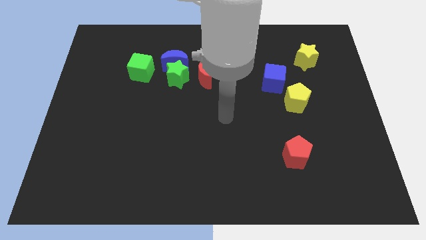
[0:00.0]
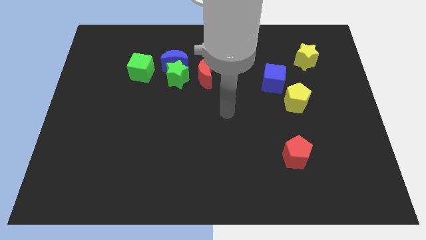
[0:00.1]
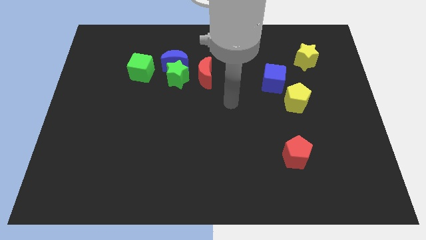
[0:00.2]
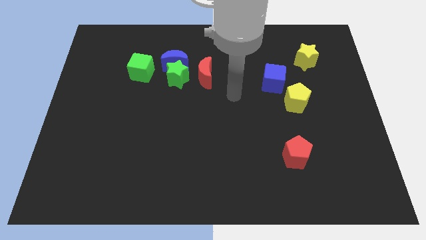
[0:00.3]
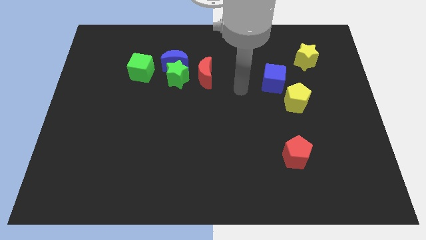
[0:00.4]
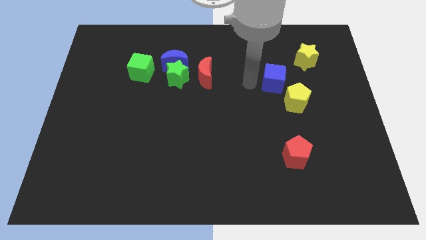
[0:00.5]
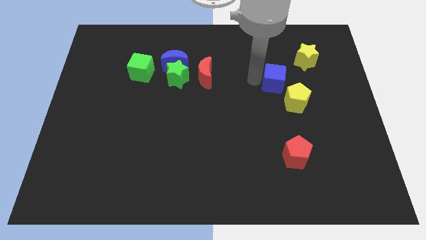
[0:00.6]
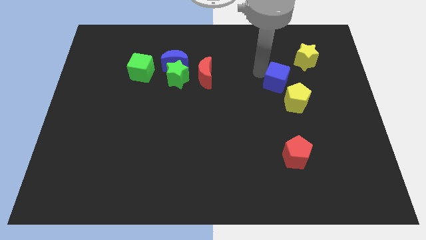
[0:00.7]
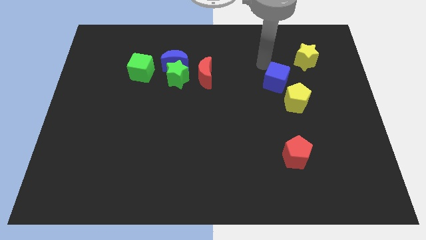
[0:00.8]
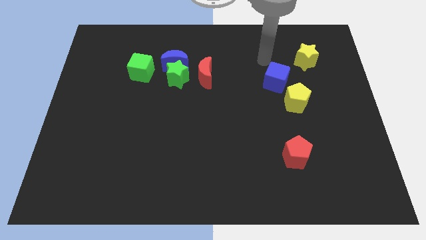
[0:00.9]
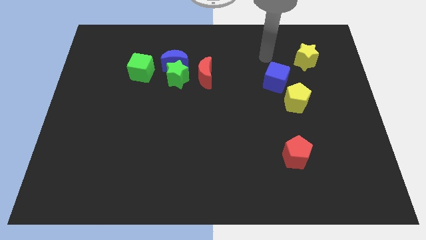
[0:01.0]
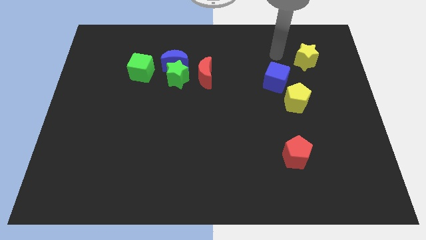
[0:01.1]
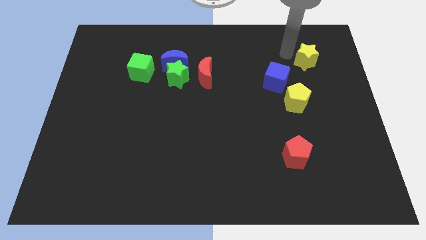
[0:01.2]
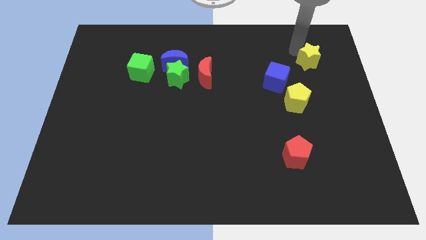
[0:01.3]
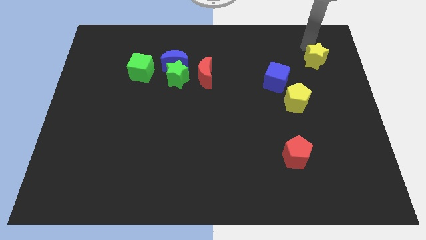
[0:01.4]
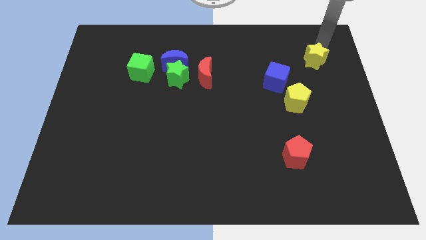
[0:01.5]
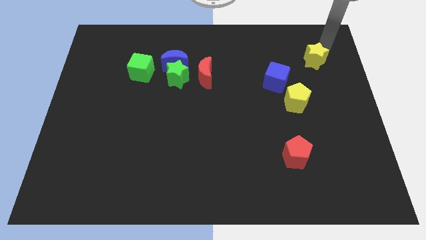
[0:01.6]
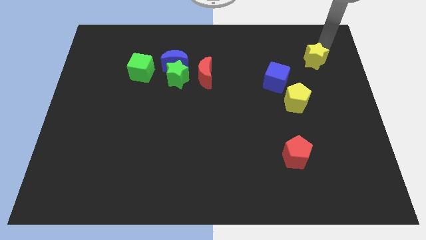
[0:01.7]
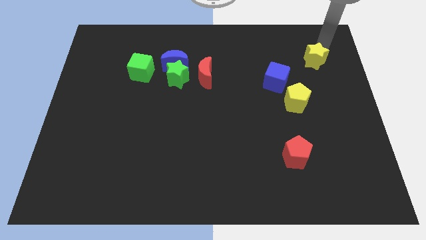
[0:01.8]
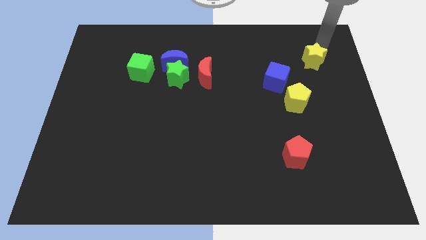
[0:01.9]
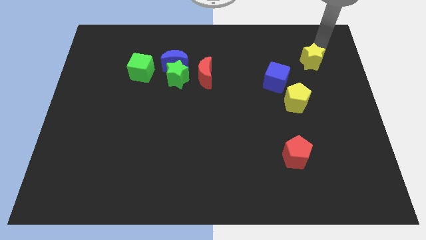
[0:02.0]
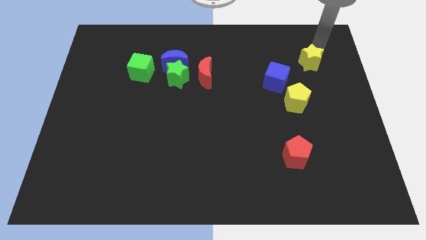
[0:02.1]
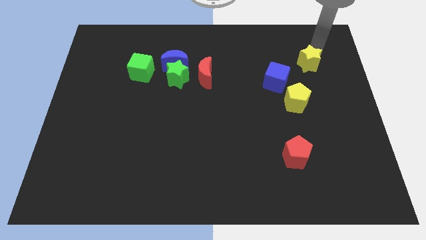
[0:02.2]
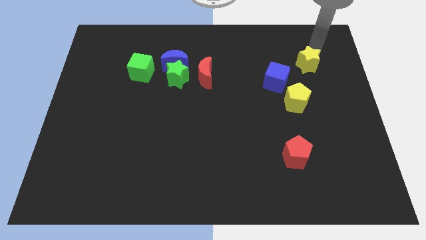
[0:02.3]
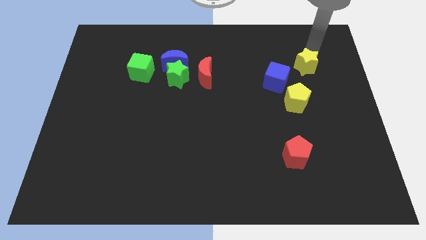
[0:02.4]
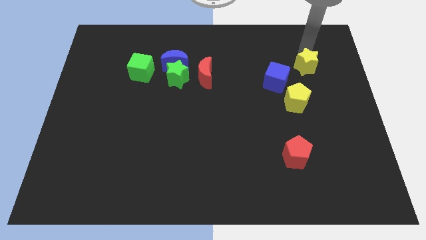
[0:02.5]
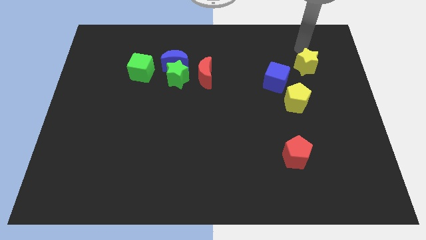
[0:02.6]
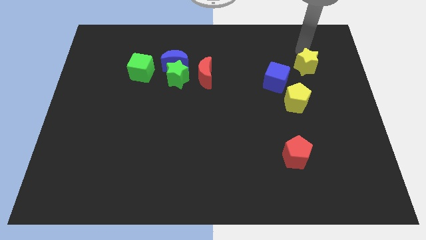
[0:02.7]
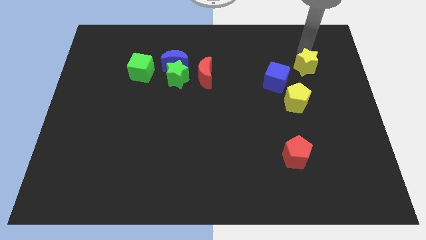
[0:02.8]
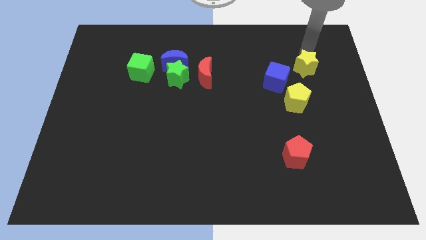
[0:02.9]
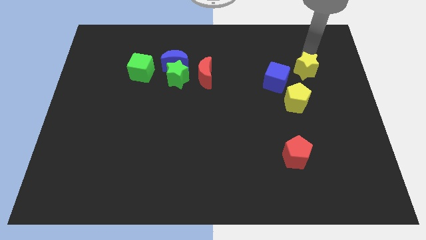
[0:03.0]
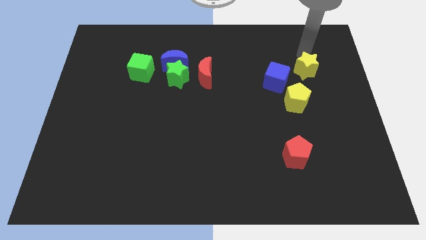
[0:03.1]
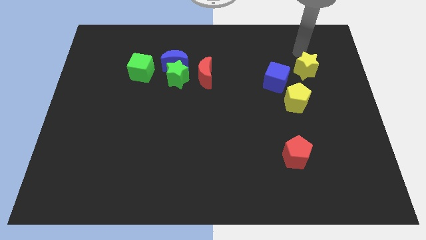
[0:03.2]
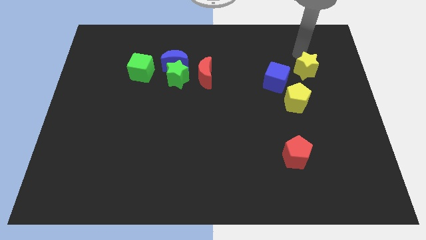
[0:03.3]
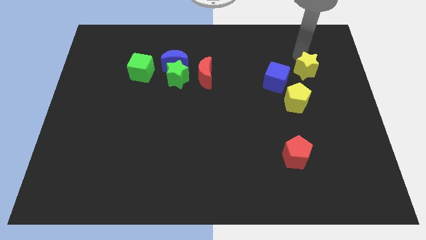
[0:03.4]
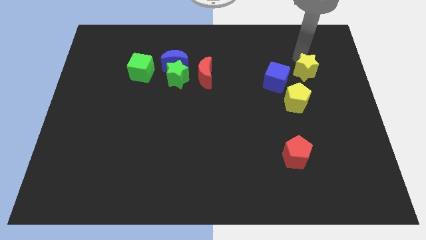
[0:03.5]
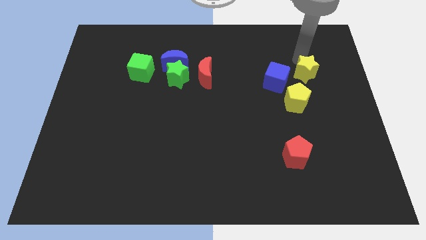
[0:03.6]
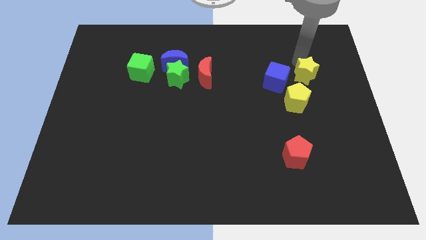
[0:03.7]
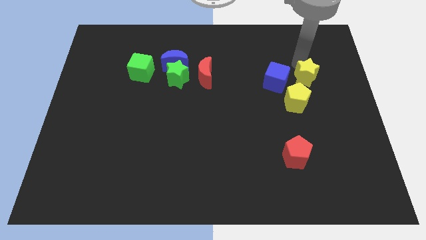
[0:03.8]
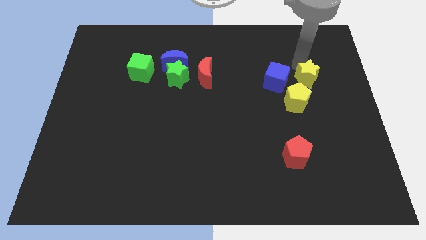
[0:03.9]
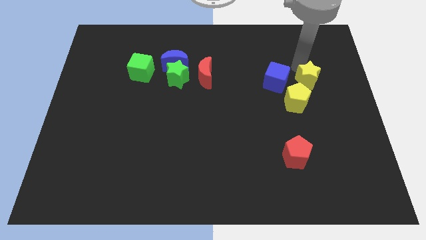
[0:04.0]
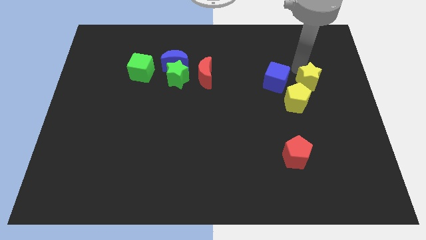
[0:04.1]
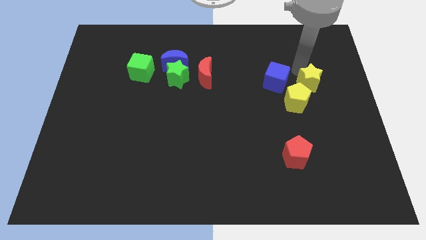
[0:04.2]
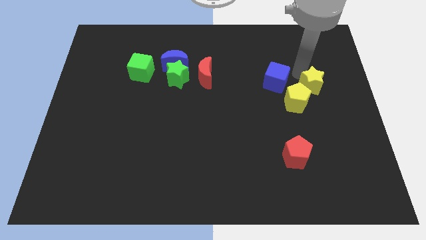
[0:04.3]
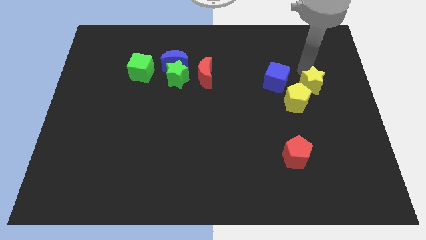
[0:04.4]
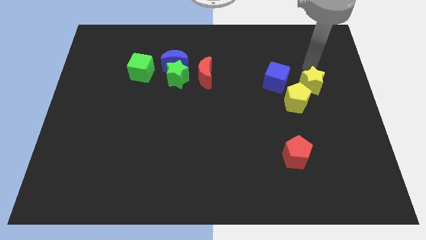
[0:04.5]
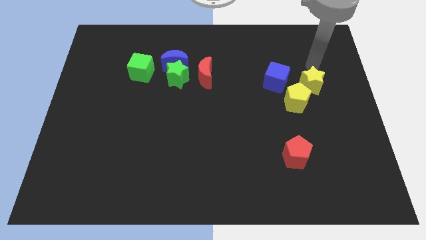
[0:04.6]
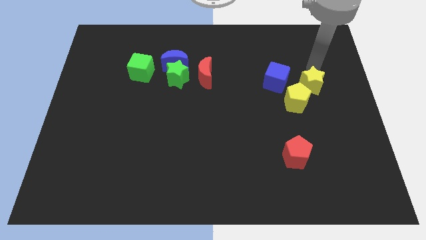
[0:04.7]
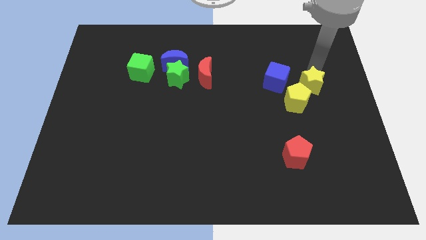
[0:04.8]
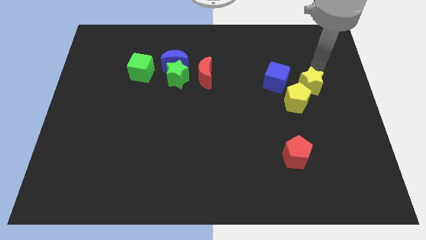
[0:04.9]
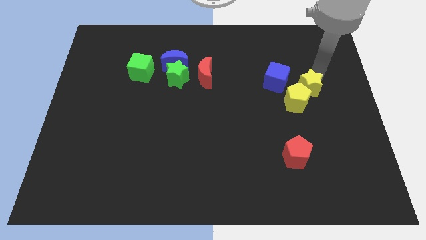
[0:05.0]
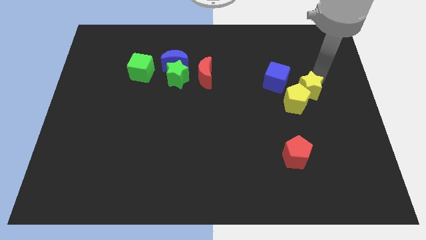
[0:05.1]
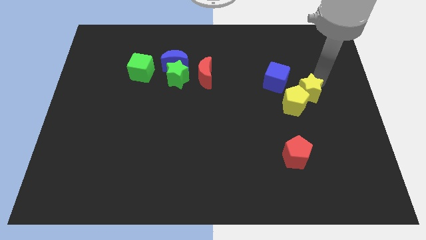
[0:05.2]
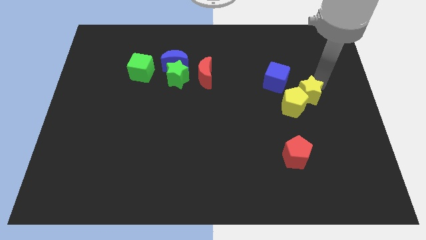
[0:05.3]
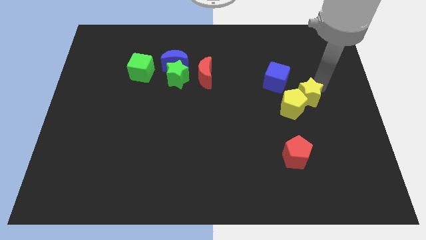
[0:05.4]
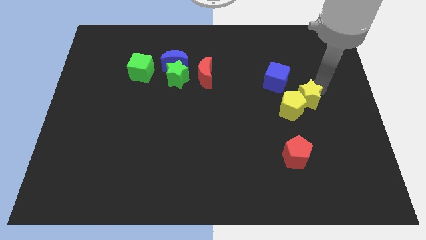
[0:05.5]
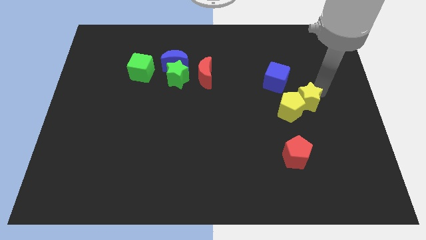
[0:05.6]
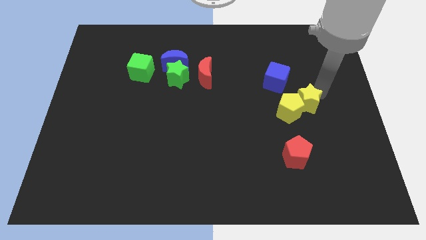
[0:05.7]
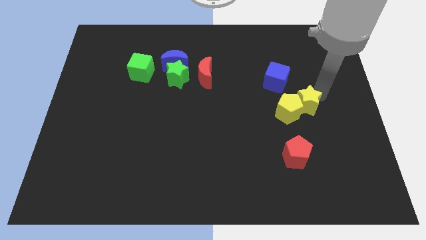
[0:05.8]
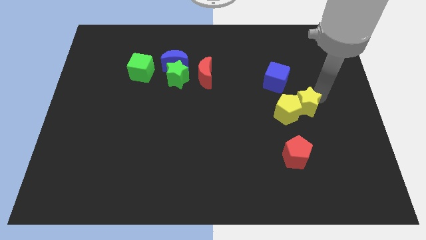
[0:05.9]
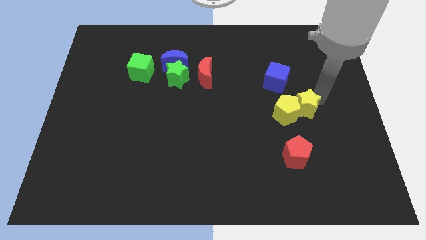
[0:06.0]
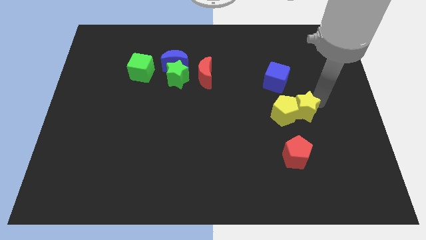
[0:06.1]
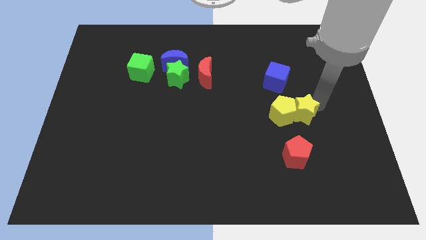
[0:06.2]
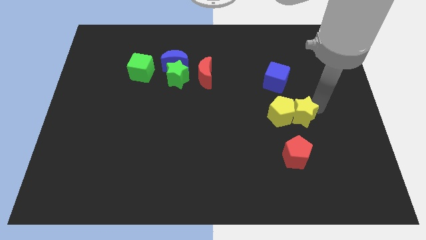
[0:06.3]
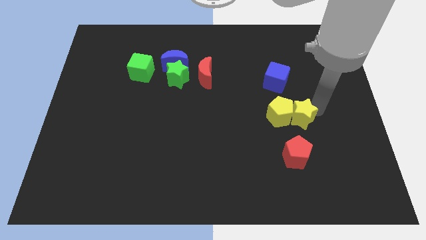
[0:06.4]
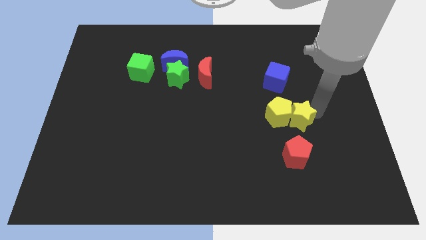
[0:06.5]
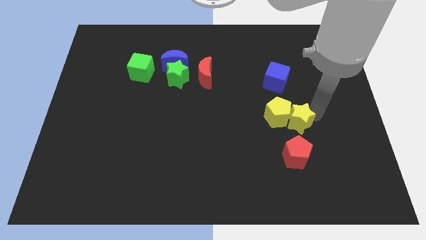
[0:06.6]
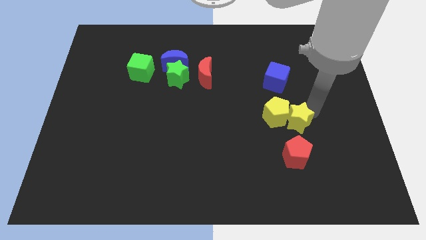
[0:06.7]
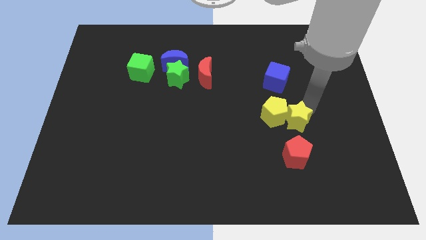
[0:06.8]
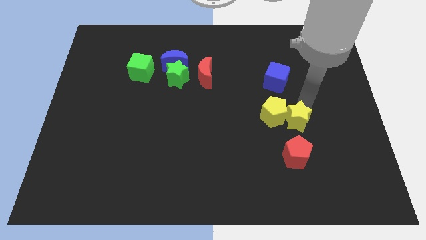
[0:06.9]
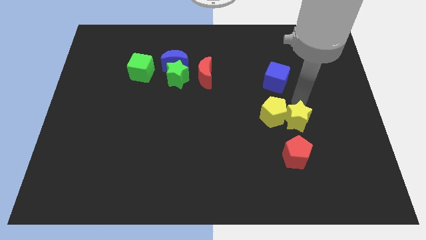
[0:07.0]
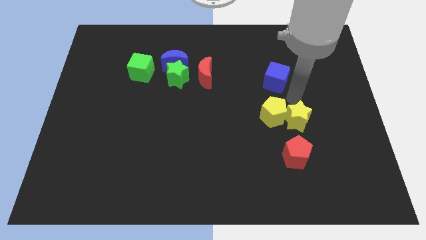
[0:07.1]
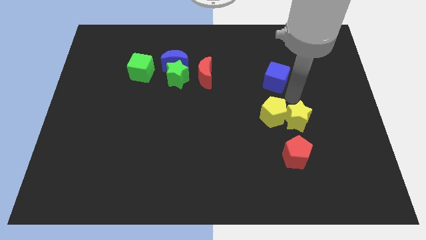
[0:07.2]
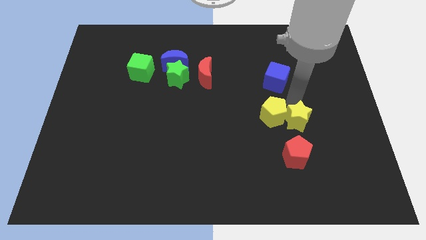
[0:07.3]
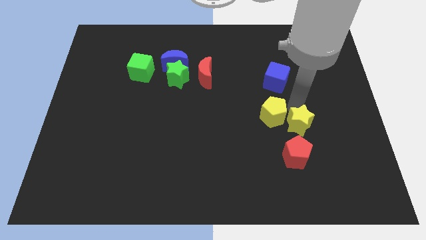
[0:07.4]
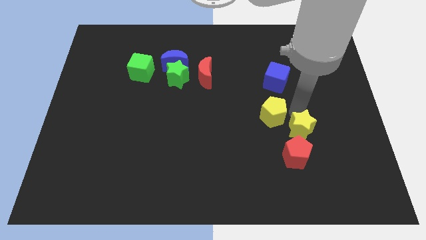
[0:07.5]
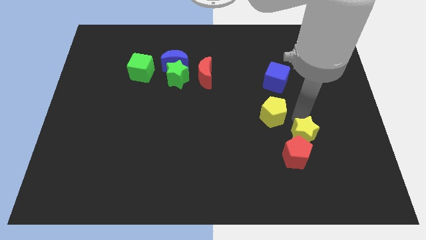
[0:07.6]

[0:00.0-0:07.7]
put the yellow star close to the red pentagon

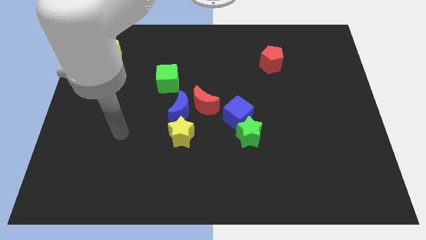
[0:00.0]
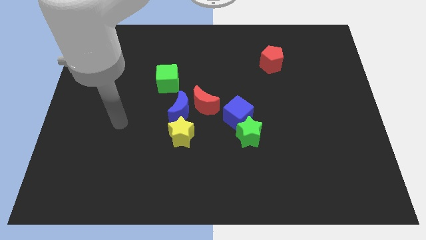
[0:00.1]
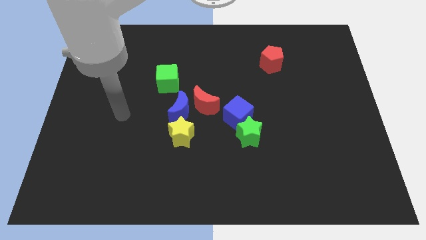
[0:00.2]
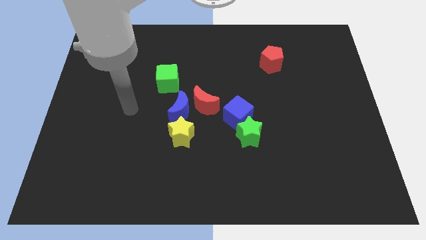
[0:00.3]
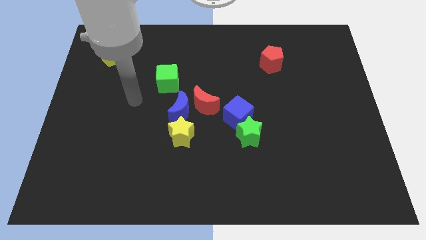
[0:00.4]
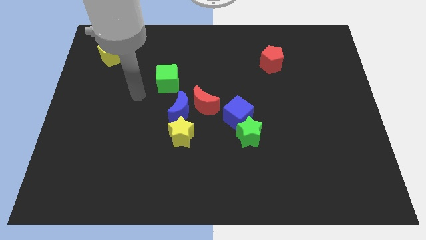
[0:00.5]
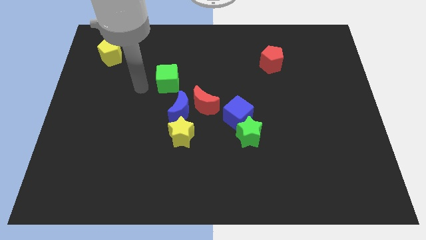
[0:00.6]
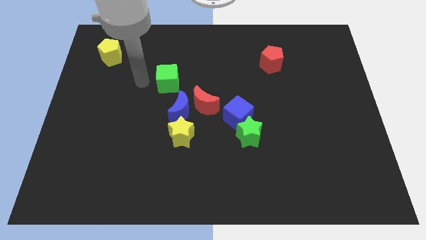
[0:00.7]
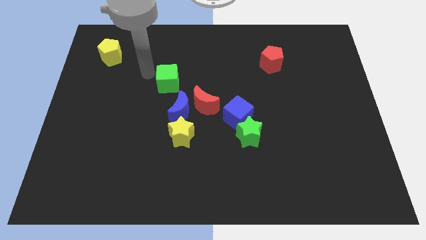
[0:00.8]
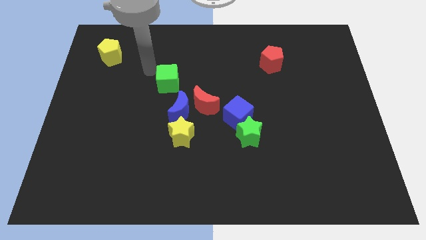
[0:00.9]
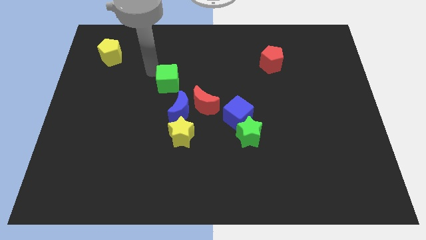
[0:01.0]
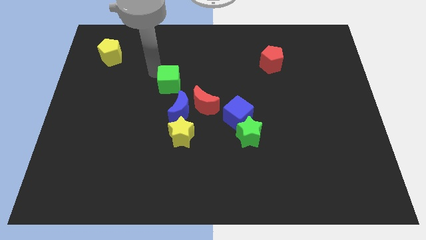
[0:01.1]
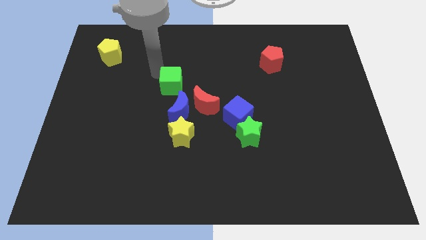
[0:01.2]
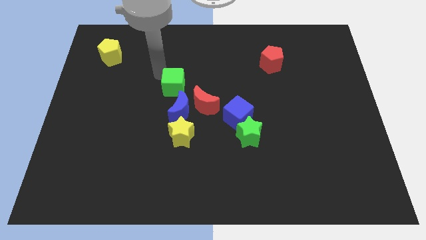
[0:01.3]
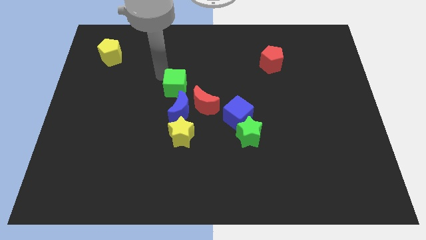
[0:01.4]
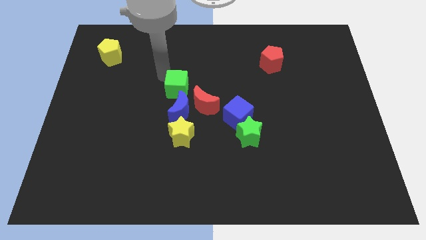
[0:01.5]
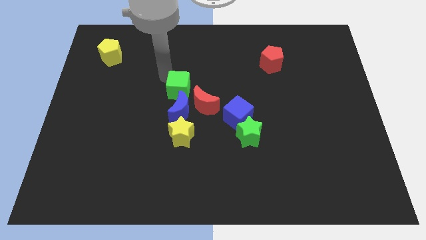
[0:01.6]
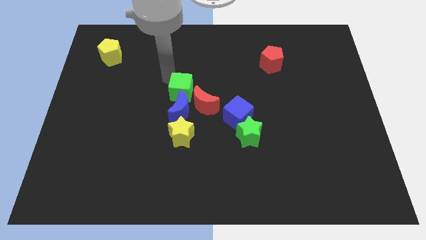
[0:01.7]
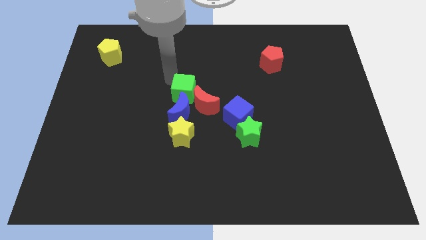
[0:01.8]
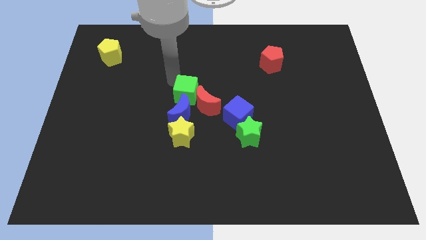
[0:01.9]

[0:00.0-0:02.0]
put the green cube to the red moon
